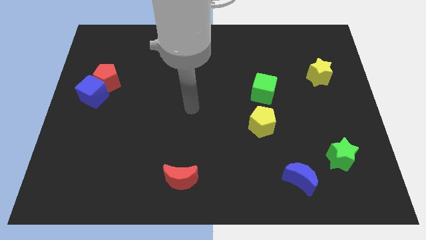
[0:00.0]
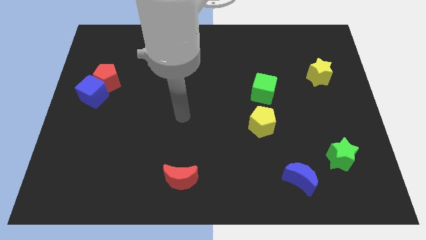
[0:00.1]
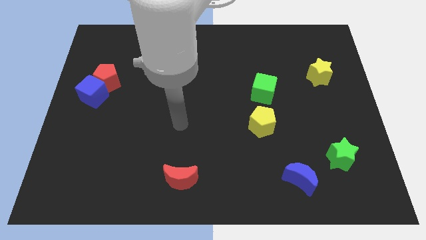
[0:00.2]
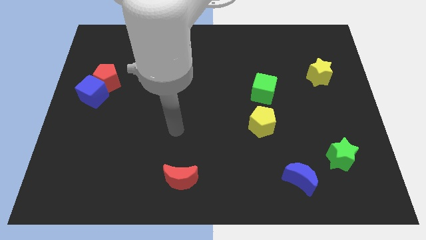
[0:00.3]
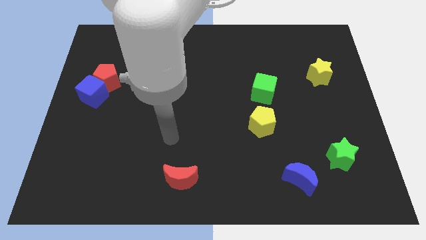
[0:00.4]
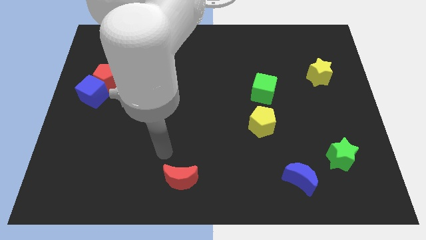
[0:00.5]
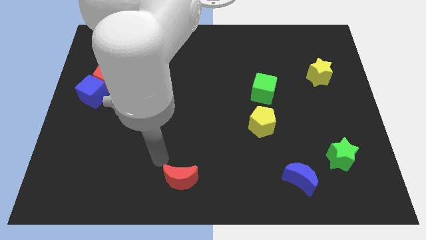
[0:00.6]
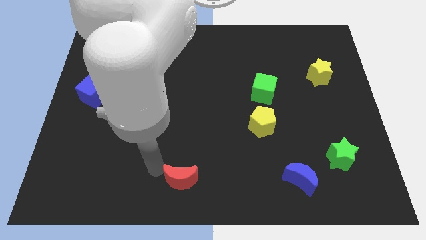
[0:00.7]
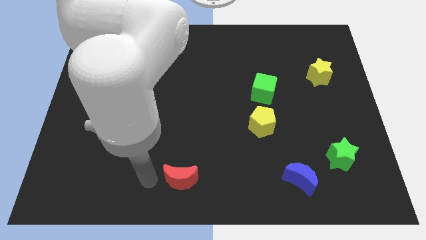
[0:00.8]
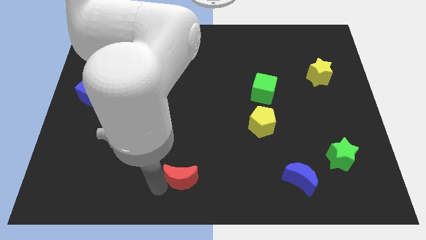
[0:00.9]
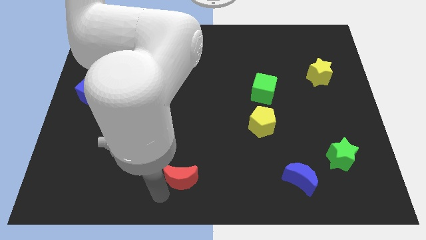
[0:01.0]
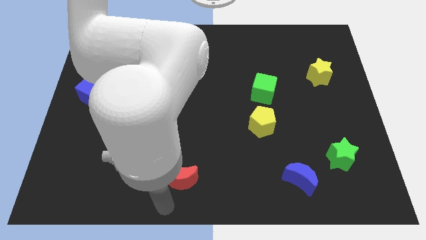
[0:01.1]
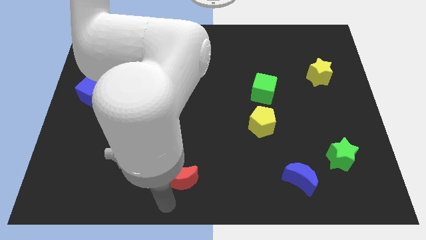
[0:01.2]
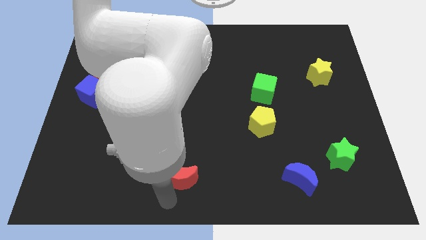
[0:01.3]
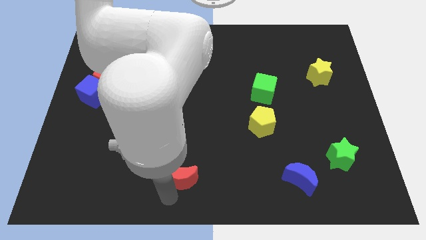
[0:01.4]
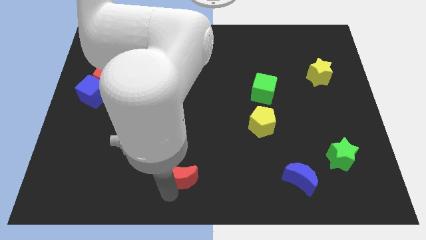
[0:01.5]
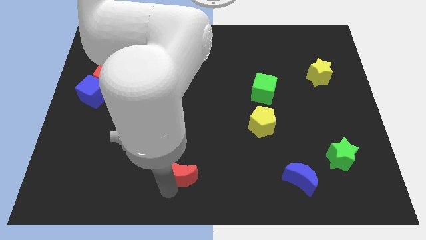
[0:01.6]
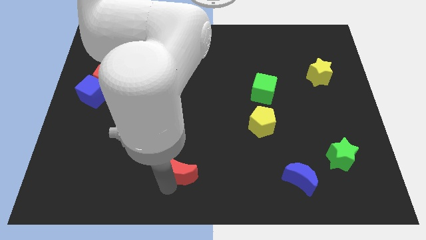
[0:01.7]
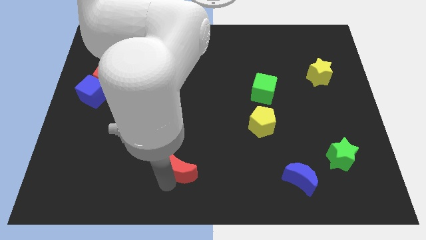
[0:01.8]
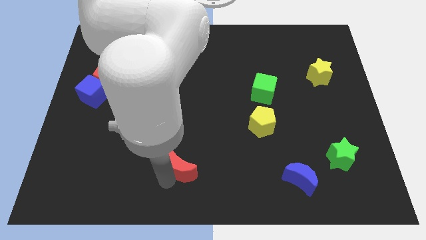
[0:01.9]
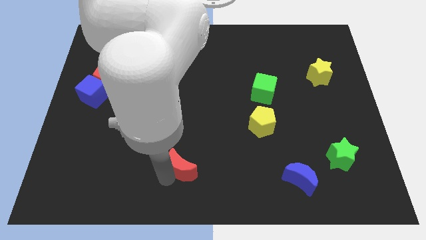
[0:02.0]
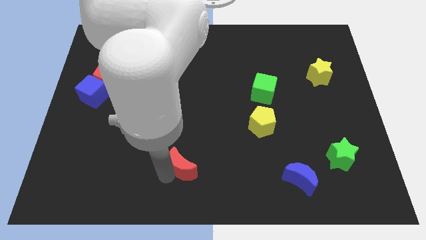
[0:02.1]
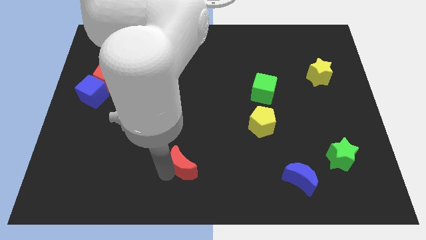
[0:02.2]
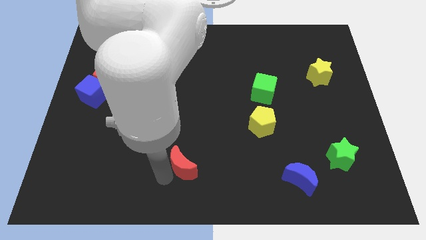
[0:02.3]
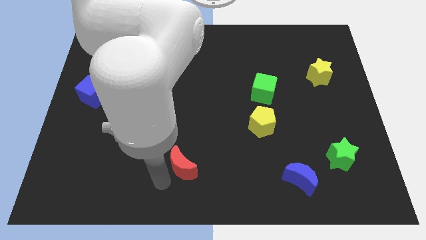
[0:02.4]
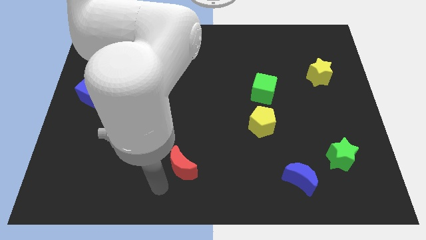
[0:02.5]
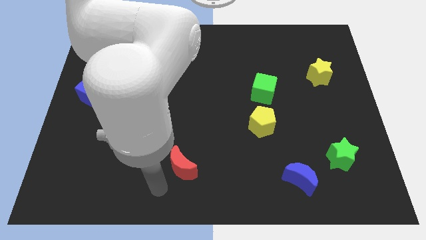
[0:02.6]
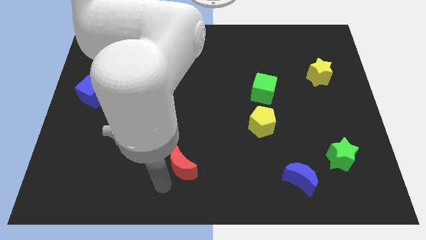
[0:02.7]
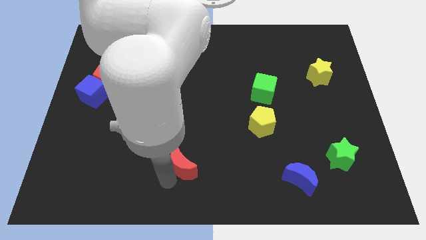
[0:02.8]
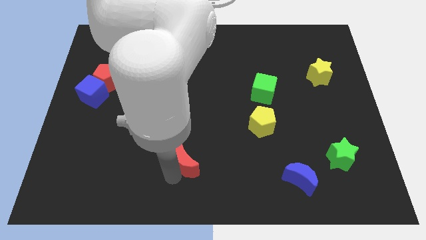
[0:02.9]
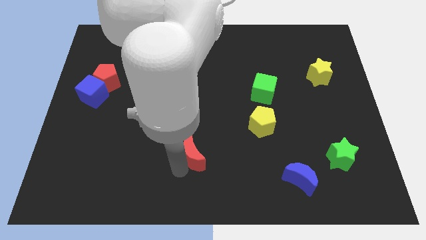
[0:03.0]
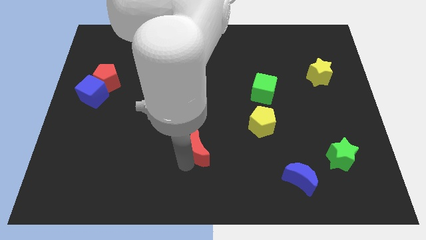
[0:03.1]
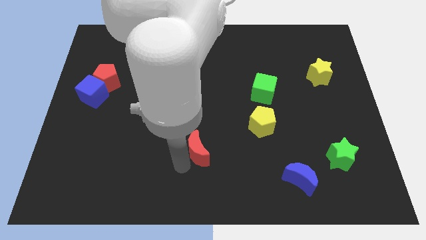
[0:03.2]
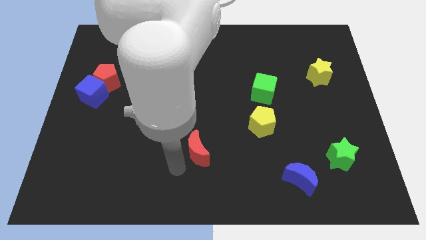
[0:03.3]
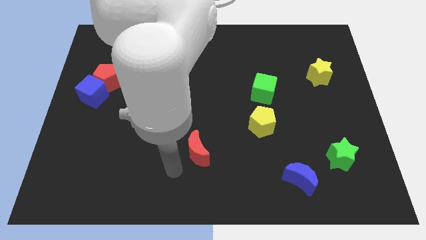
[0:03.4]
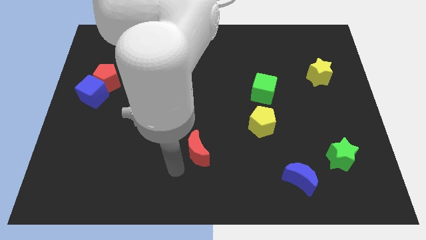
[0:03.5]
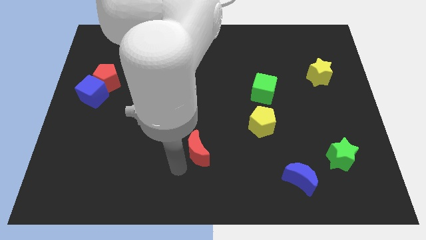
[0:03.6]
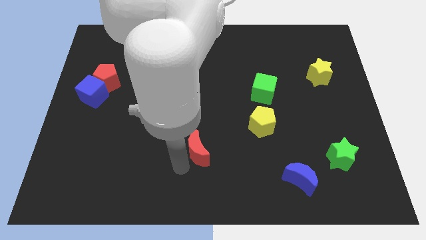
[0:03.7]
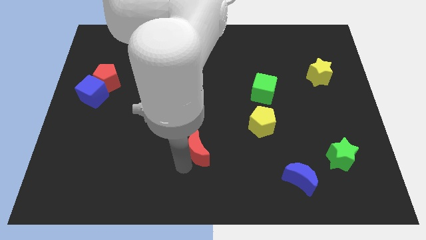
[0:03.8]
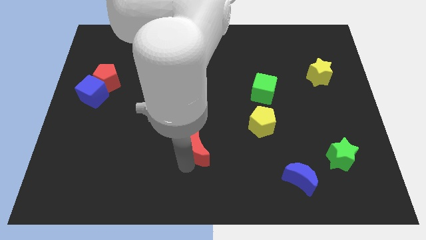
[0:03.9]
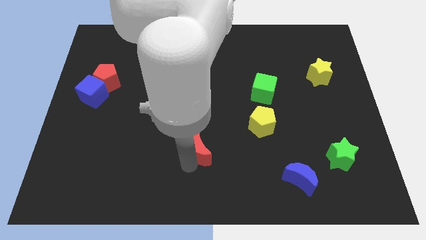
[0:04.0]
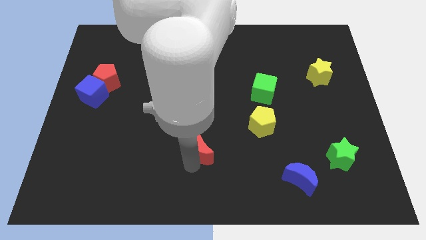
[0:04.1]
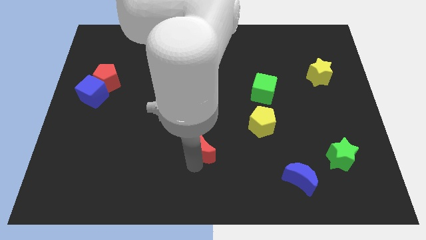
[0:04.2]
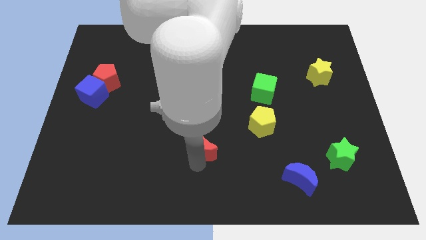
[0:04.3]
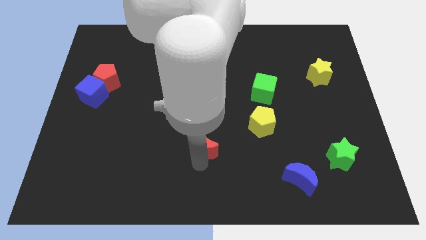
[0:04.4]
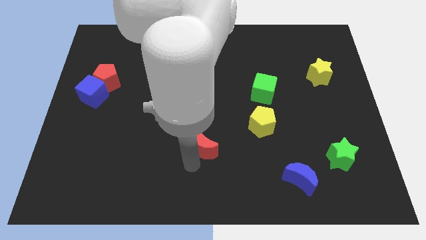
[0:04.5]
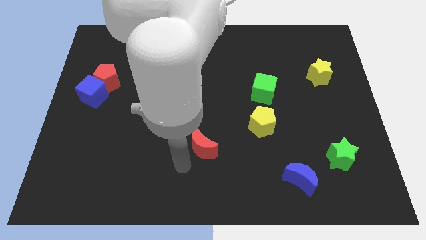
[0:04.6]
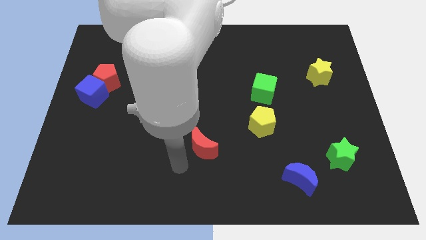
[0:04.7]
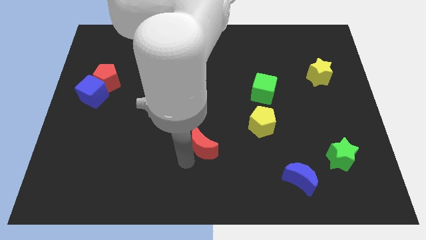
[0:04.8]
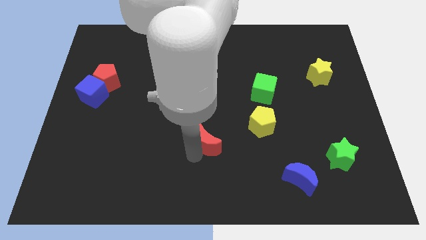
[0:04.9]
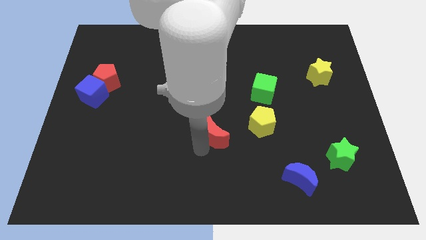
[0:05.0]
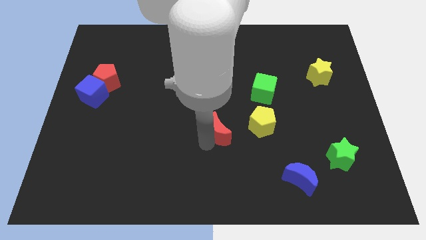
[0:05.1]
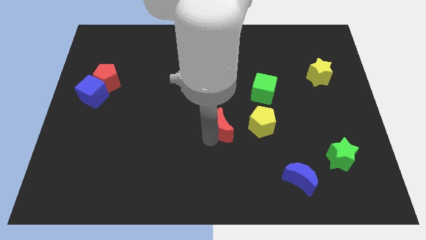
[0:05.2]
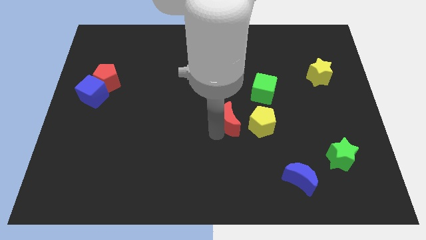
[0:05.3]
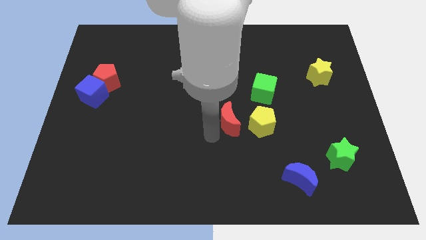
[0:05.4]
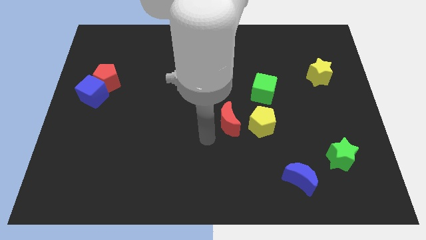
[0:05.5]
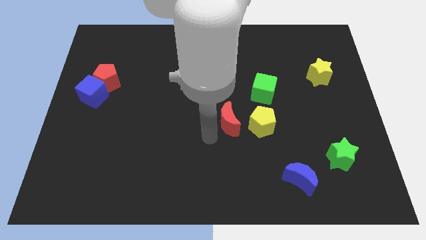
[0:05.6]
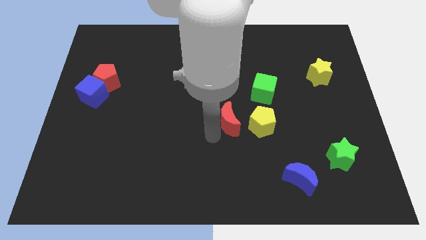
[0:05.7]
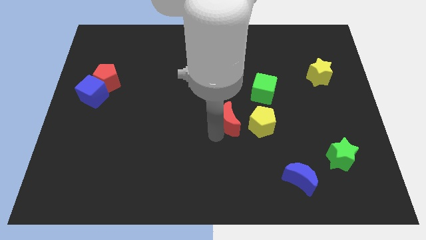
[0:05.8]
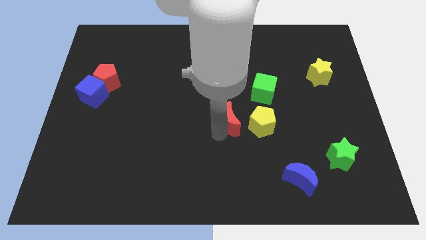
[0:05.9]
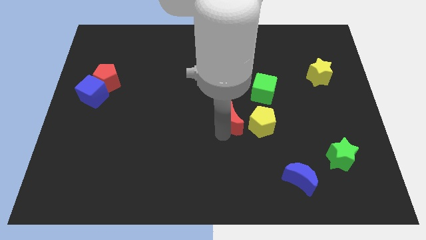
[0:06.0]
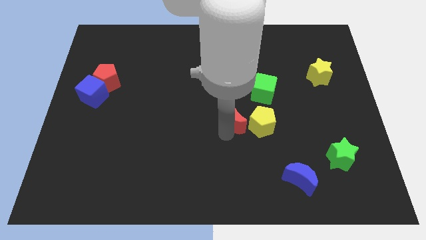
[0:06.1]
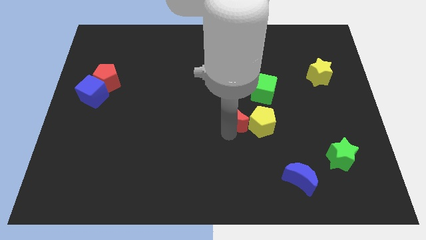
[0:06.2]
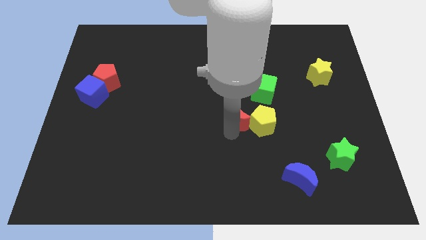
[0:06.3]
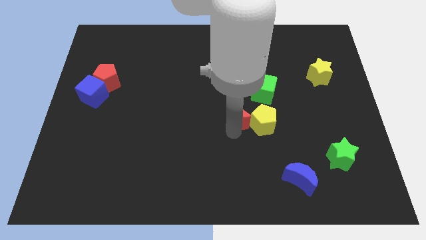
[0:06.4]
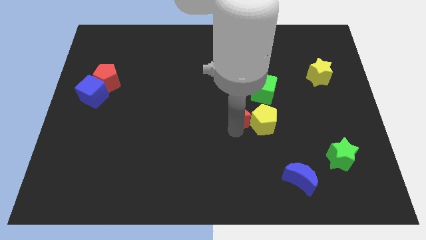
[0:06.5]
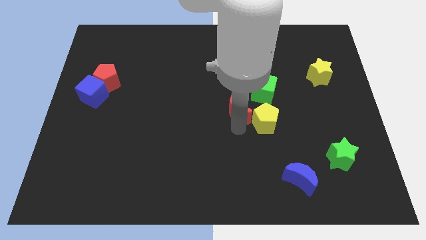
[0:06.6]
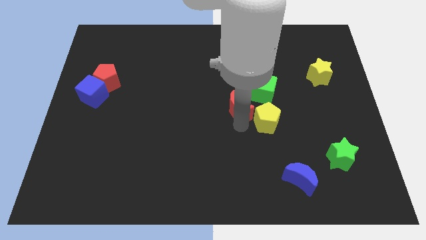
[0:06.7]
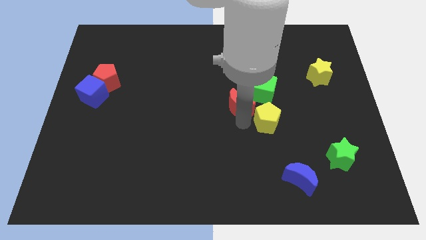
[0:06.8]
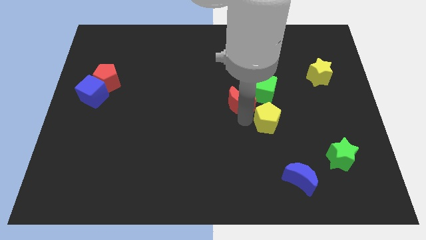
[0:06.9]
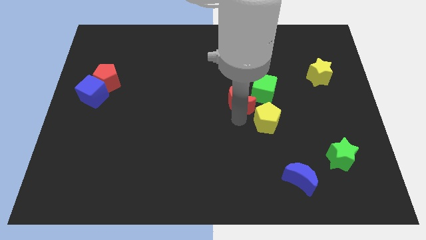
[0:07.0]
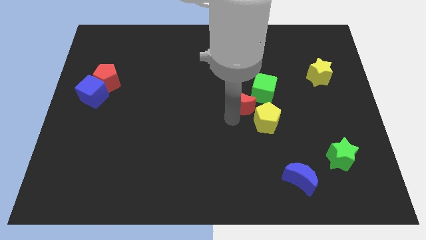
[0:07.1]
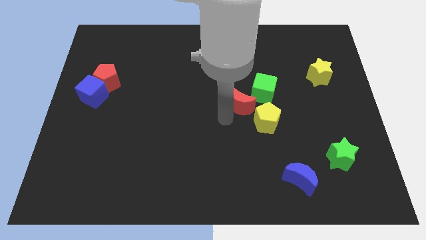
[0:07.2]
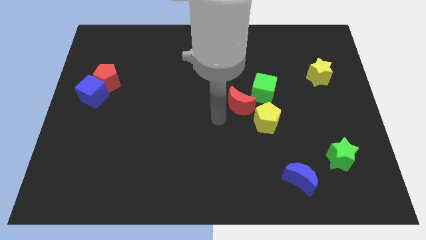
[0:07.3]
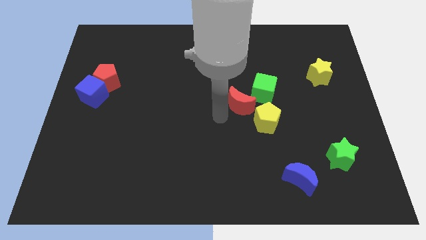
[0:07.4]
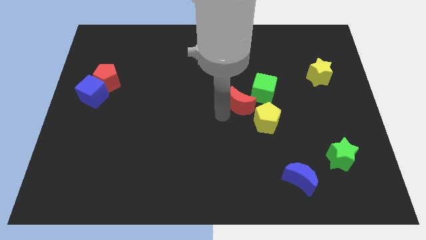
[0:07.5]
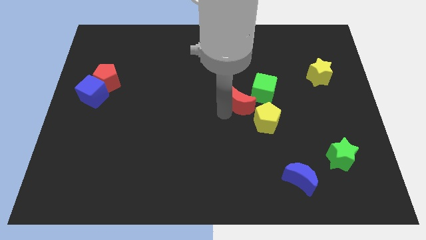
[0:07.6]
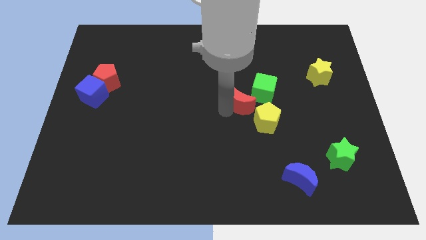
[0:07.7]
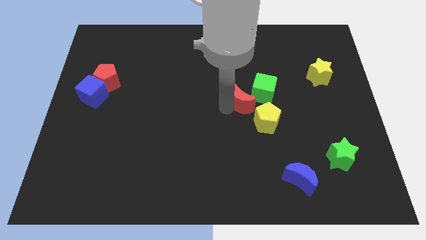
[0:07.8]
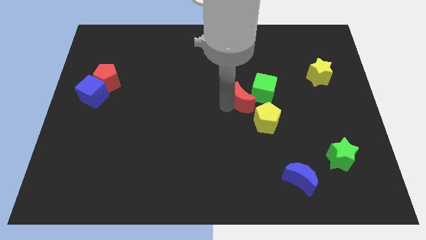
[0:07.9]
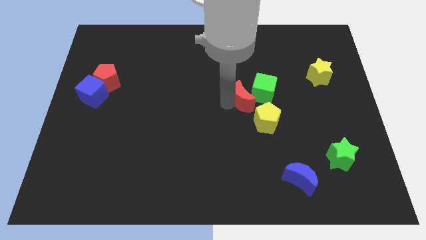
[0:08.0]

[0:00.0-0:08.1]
move the red moon towards the green cube
